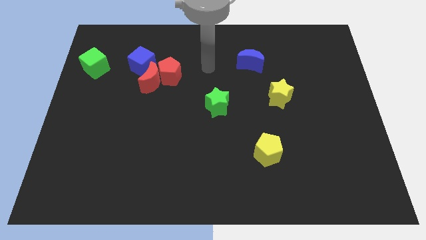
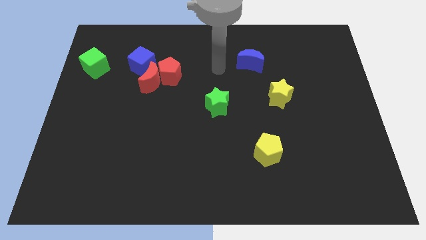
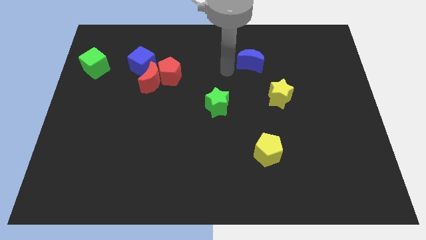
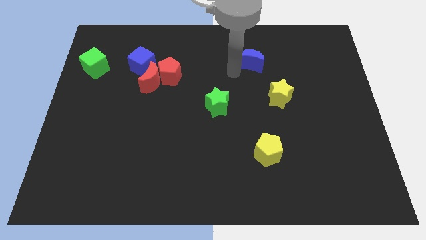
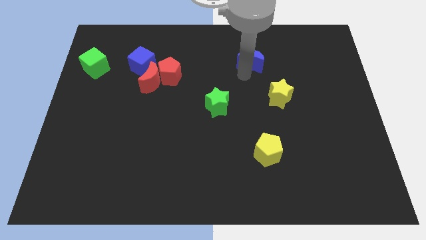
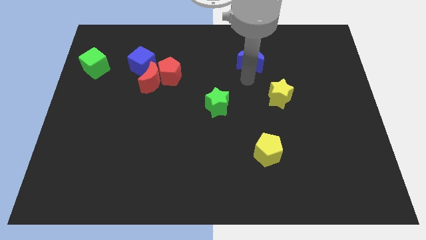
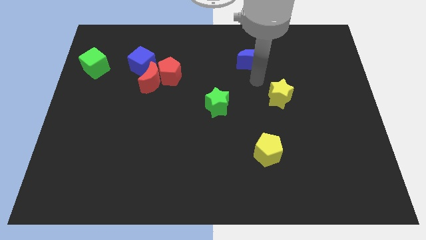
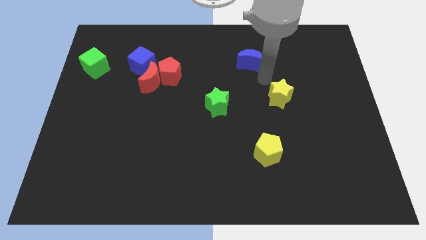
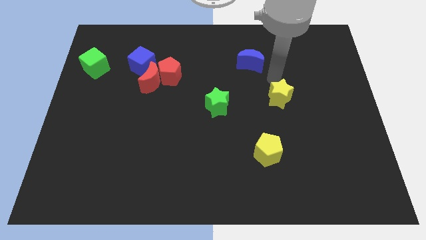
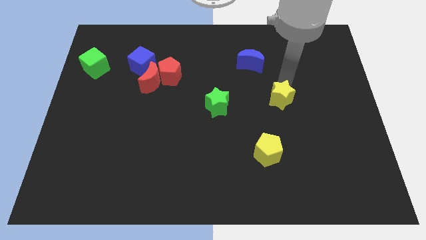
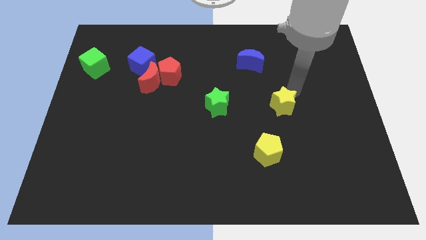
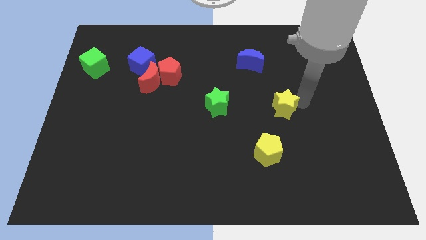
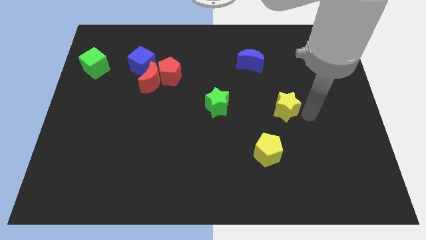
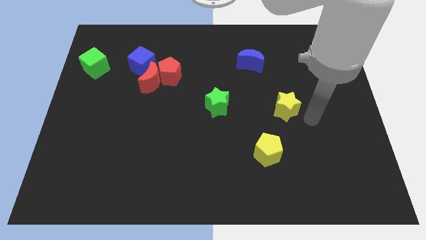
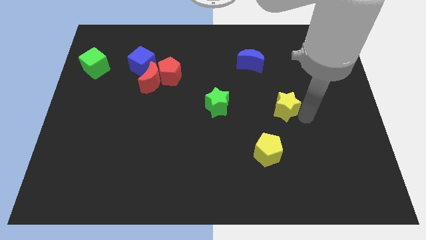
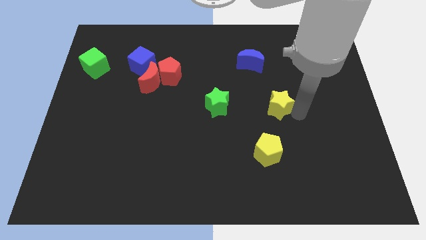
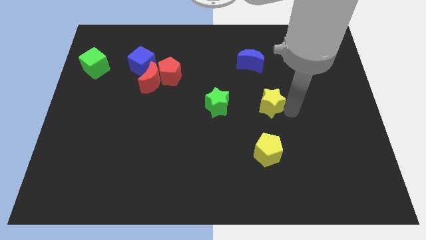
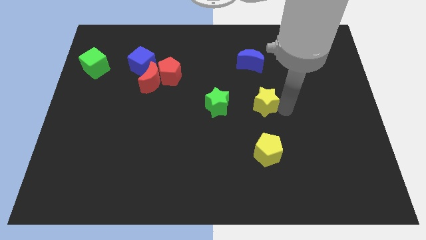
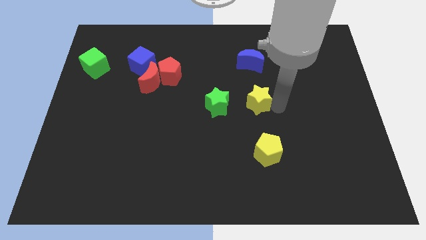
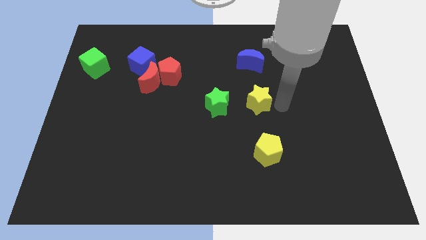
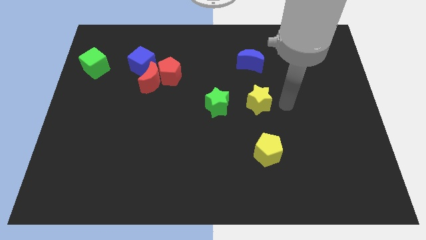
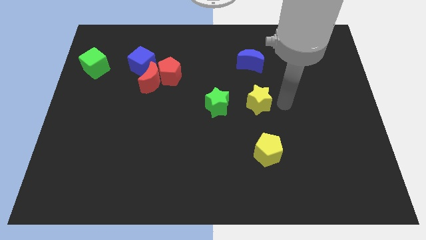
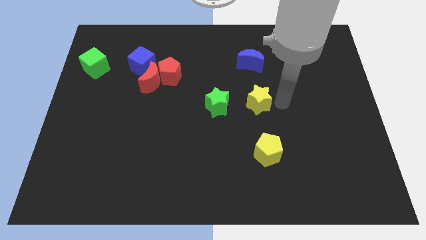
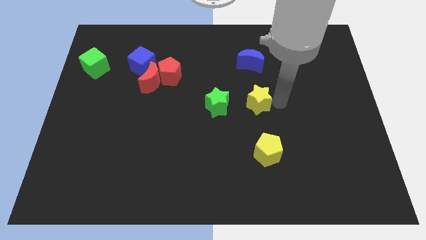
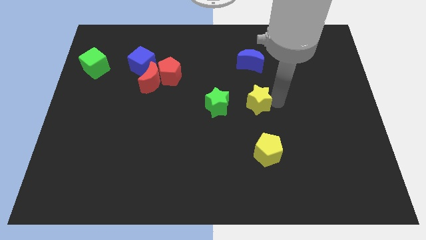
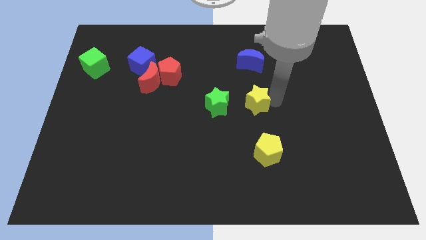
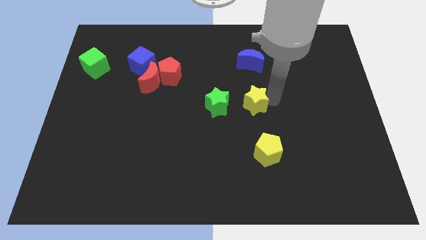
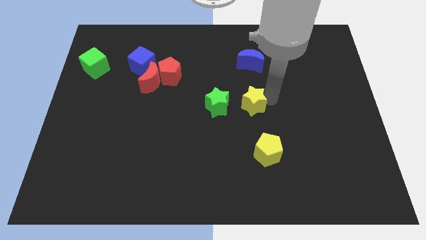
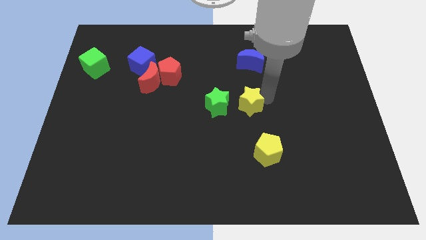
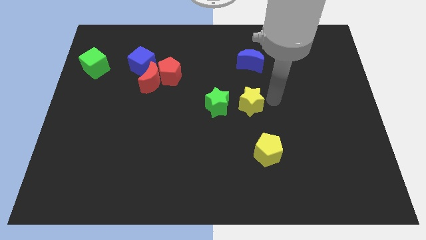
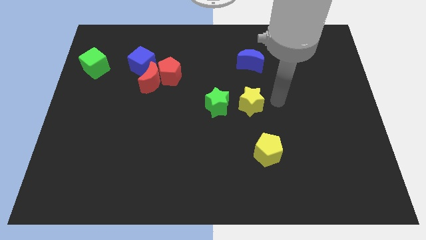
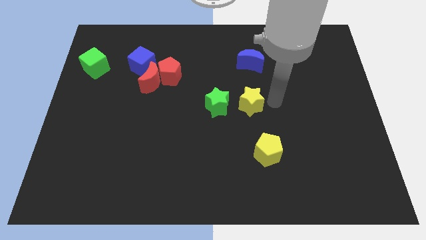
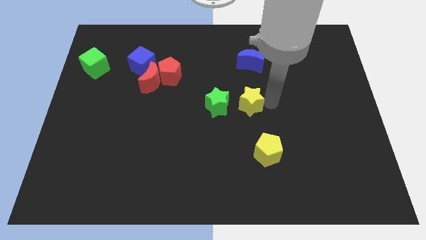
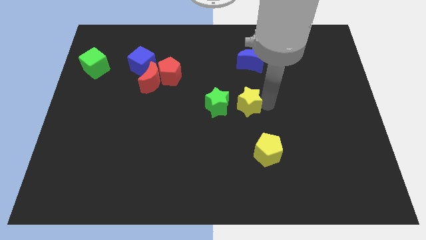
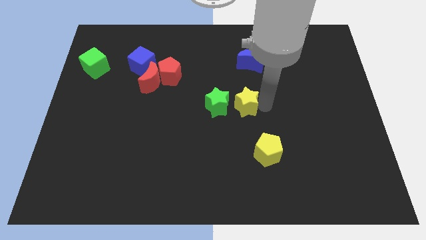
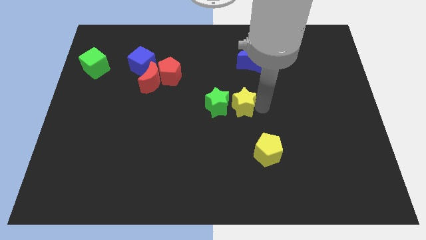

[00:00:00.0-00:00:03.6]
move the yellow star to the green star

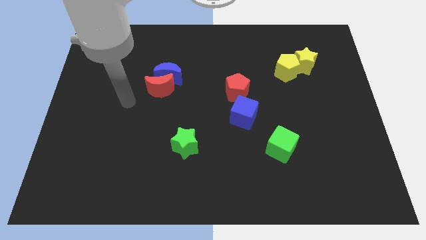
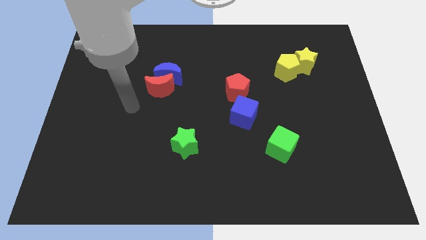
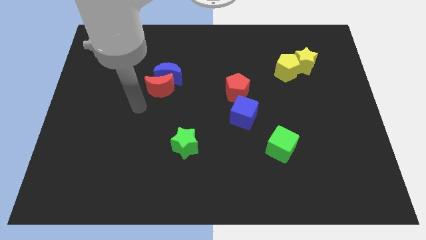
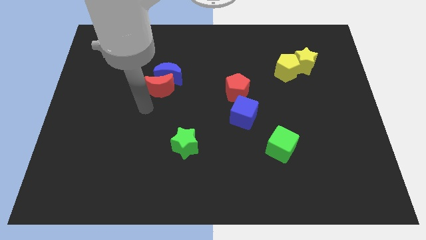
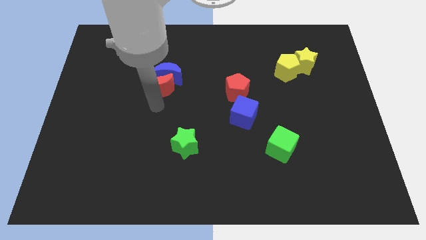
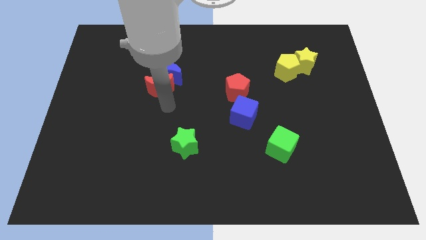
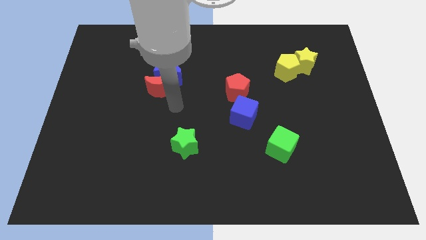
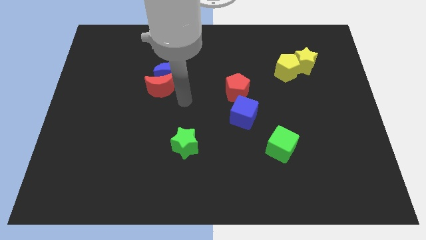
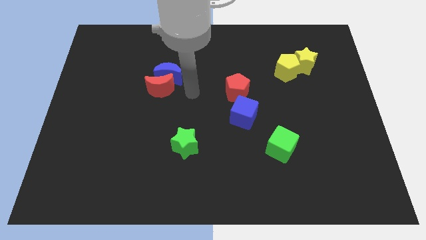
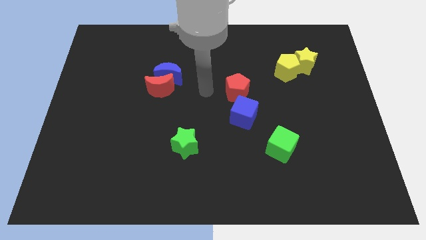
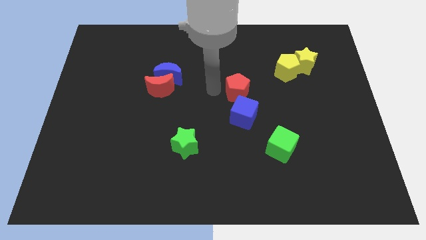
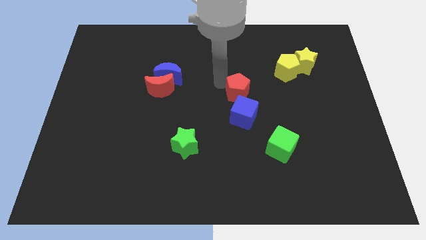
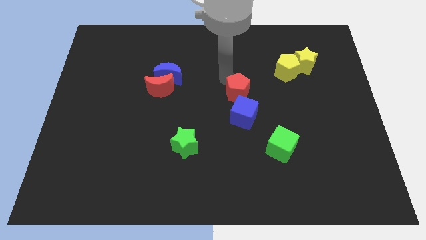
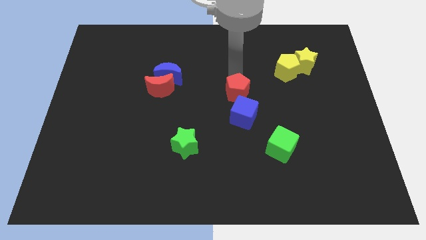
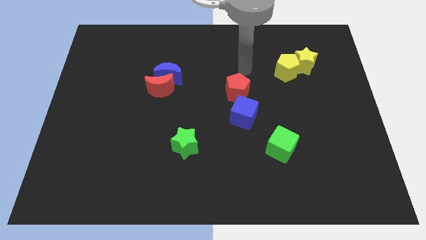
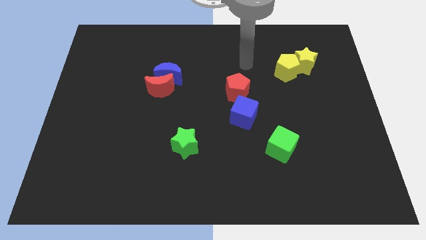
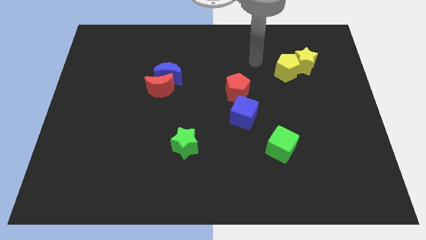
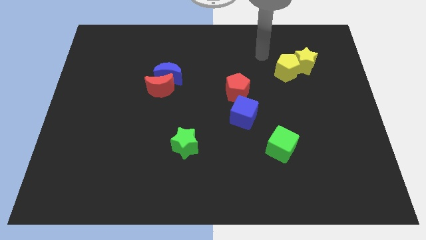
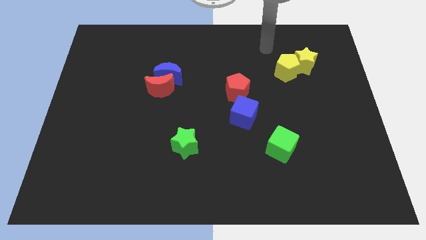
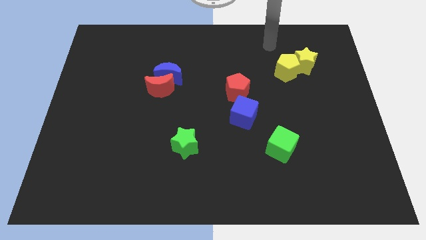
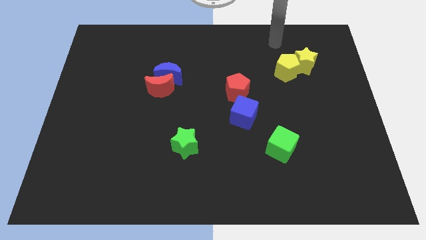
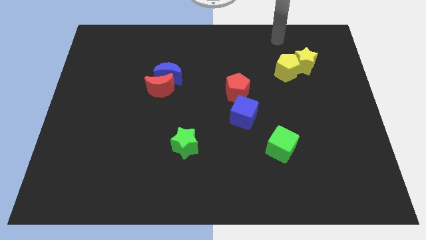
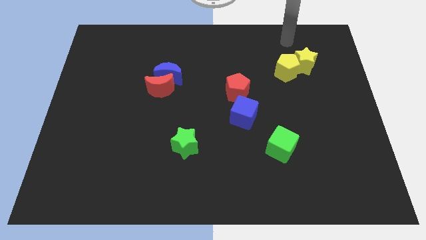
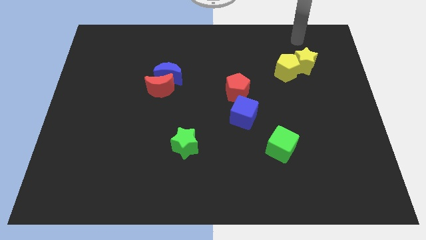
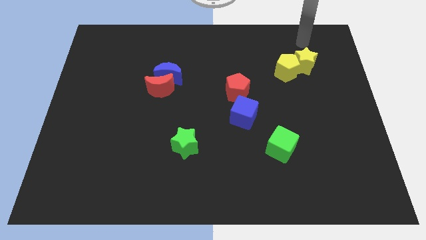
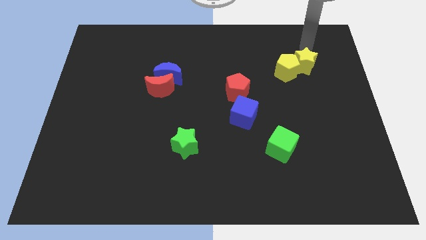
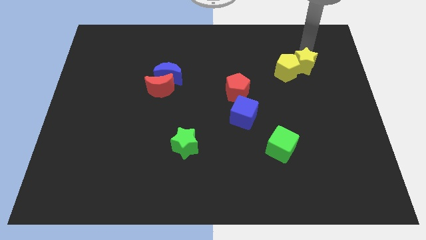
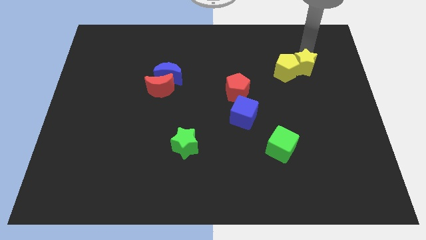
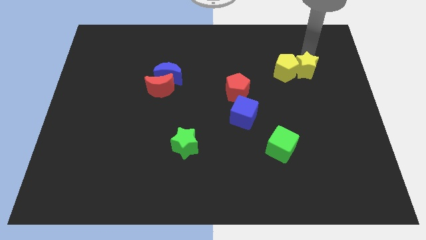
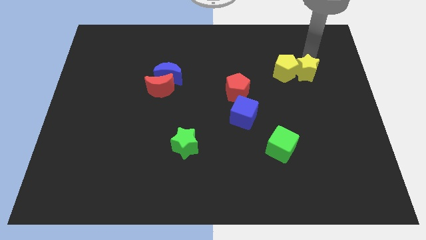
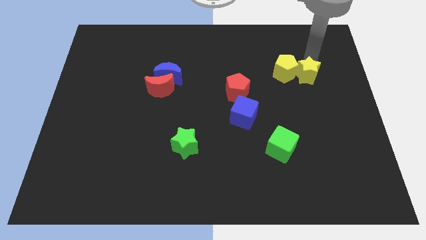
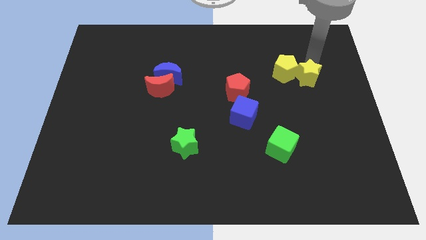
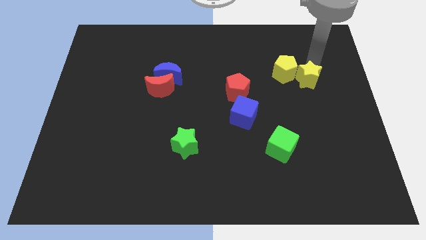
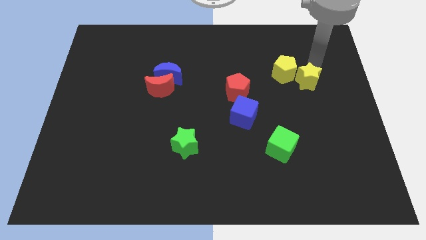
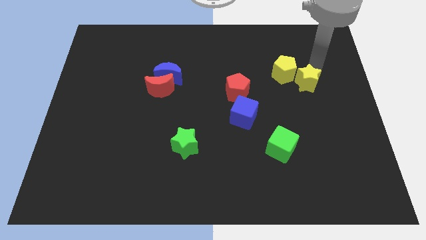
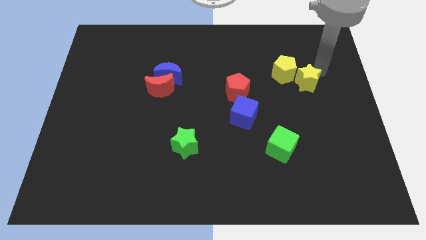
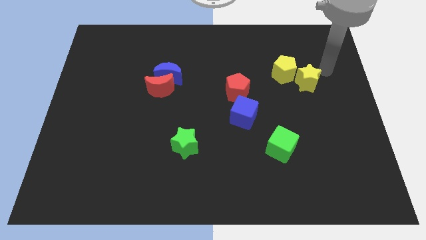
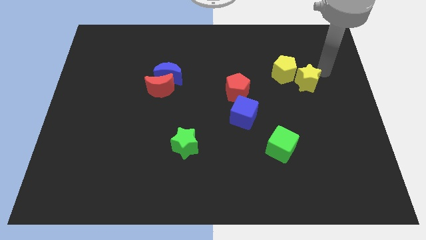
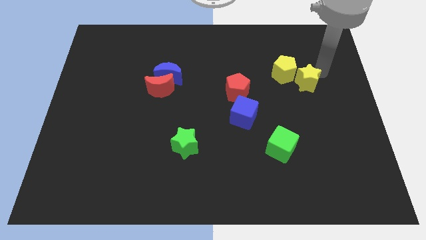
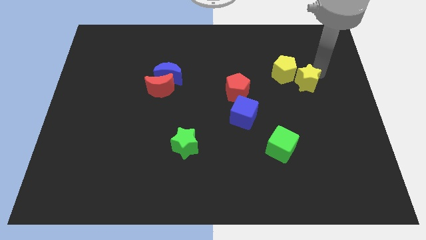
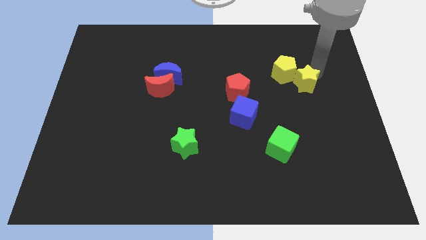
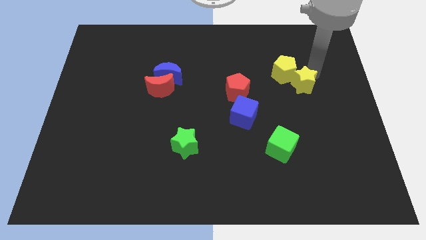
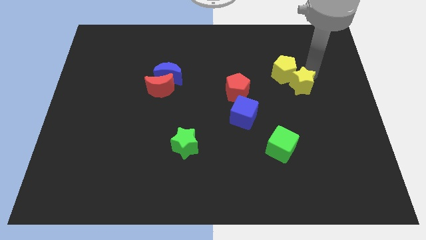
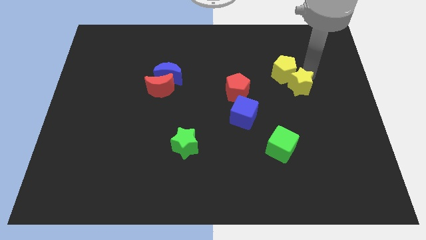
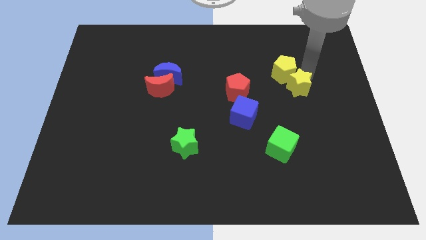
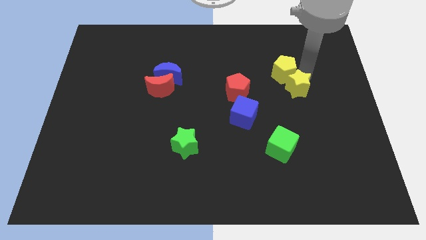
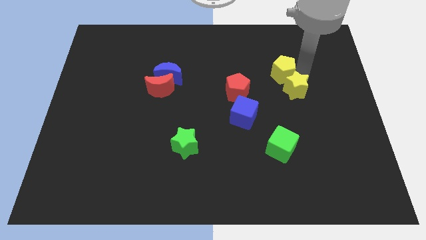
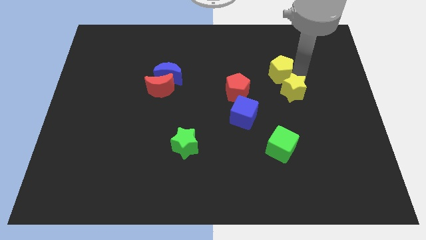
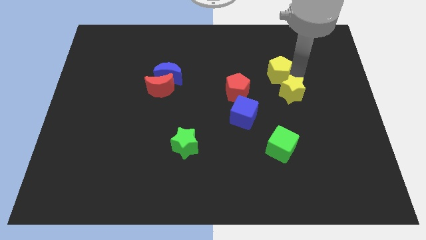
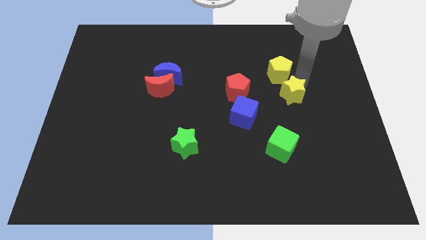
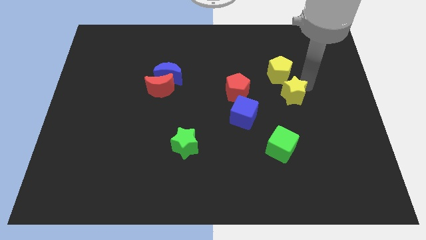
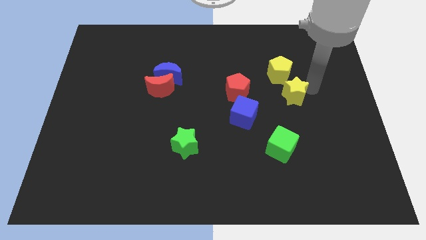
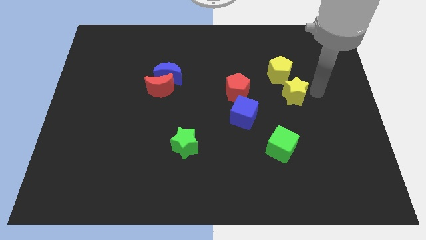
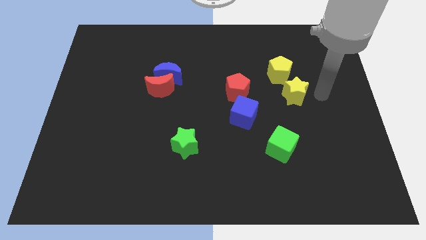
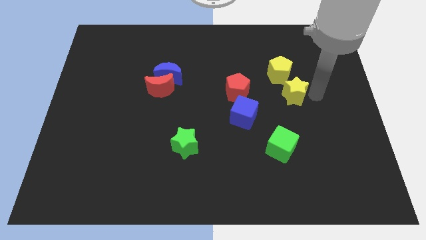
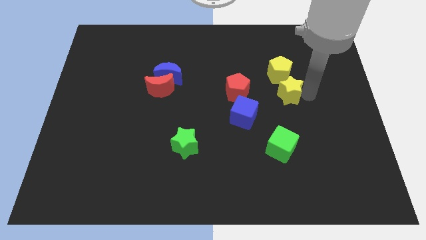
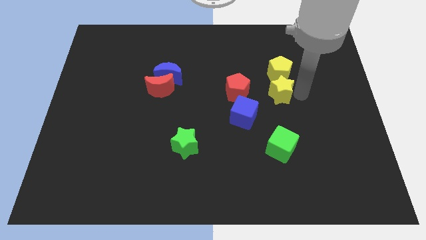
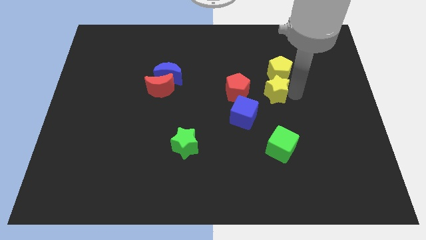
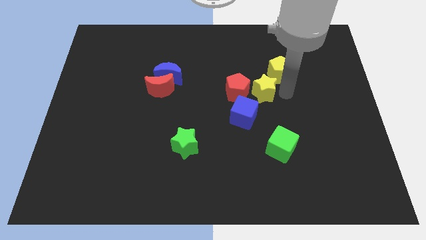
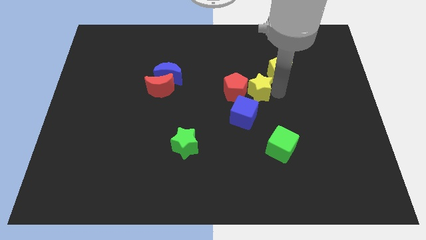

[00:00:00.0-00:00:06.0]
put the yellow star to the red pentagon
